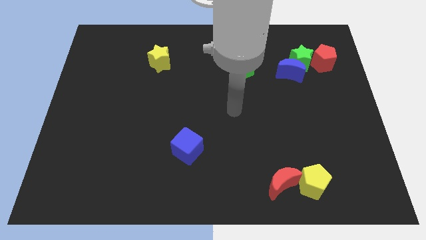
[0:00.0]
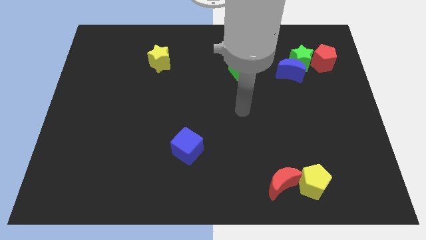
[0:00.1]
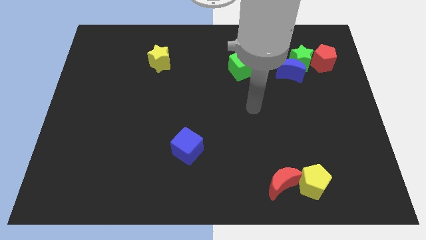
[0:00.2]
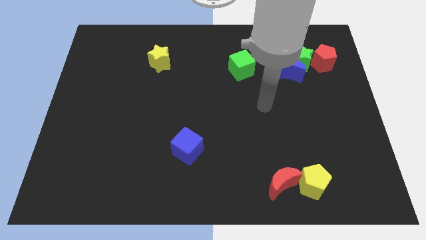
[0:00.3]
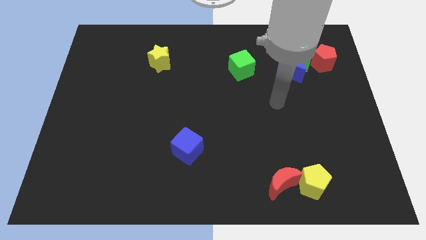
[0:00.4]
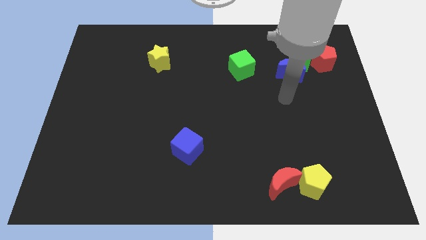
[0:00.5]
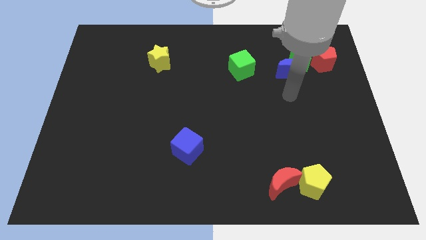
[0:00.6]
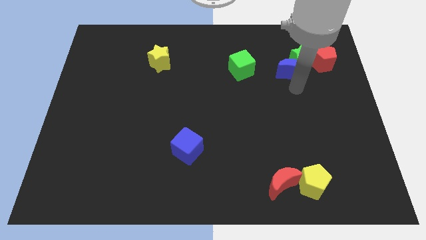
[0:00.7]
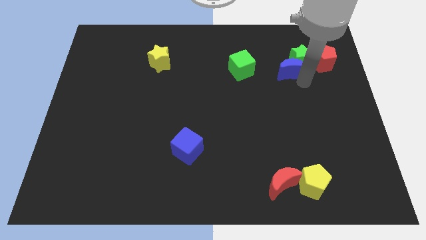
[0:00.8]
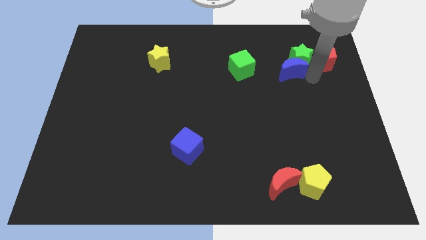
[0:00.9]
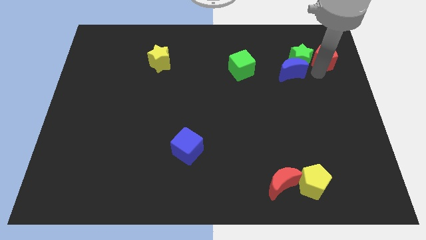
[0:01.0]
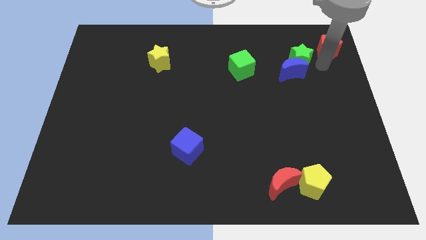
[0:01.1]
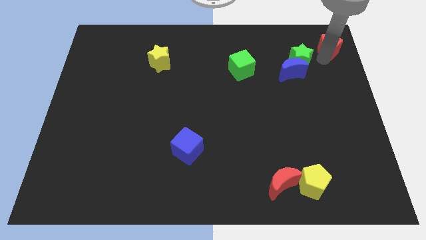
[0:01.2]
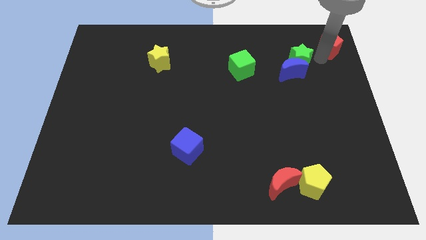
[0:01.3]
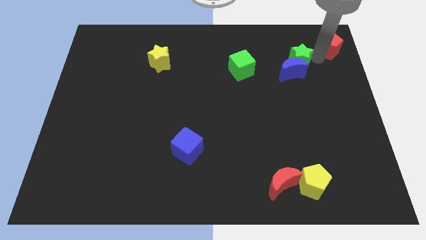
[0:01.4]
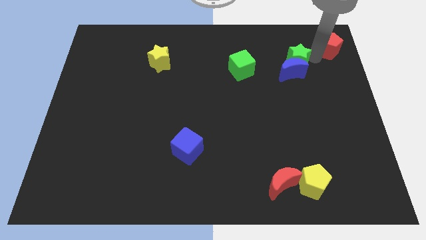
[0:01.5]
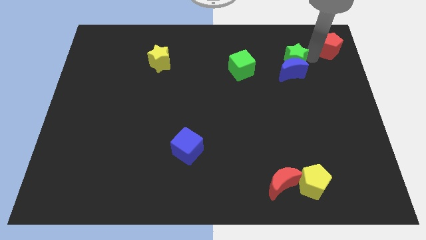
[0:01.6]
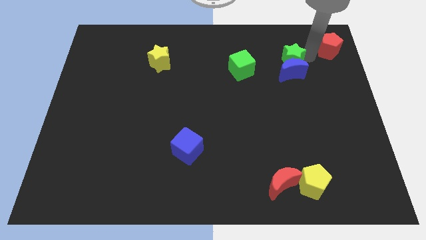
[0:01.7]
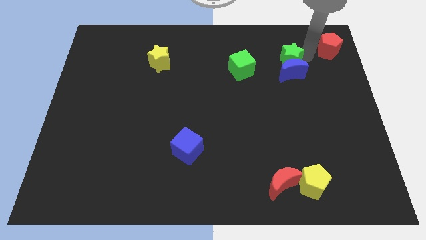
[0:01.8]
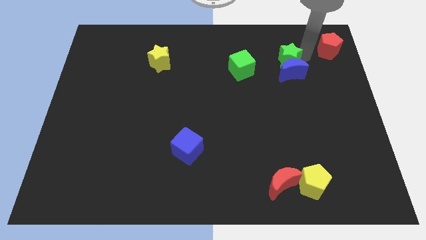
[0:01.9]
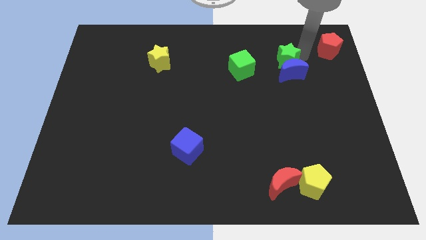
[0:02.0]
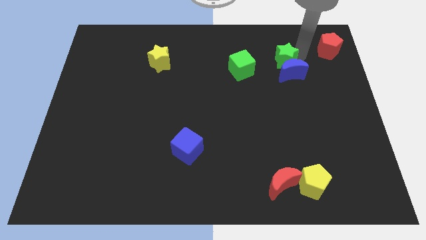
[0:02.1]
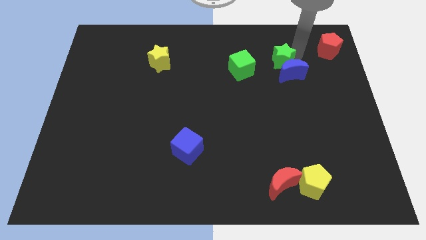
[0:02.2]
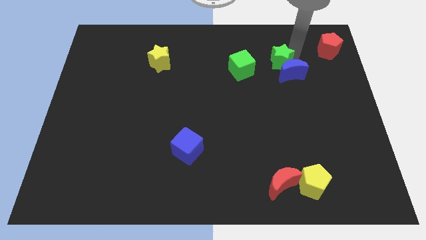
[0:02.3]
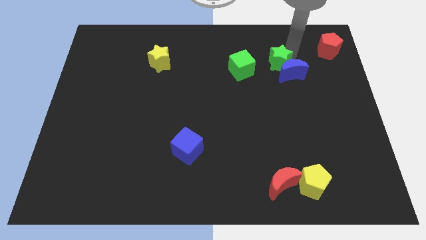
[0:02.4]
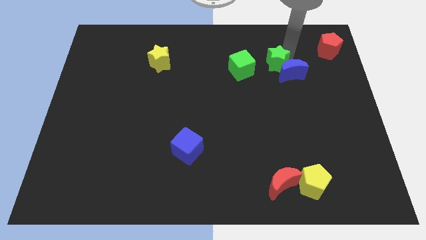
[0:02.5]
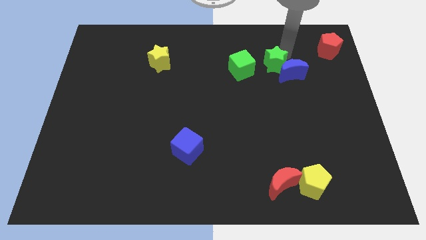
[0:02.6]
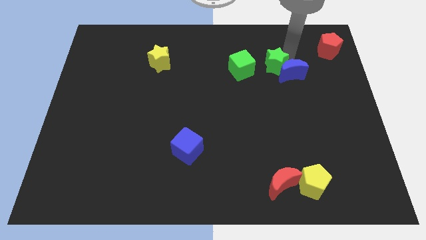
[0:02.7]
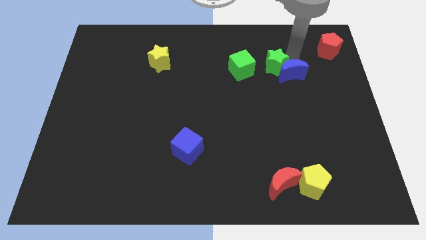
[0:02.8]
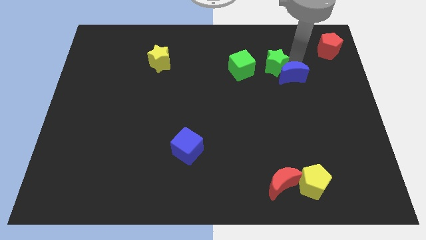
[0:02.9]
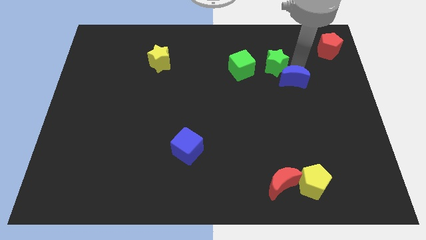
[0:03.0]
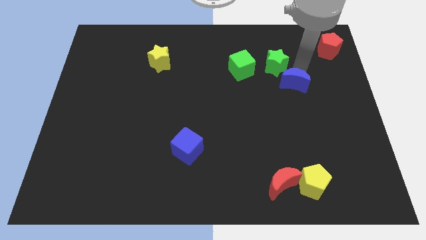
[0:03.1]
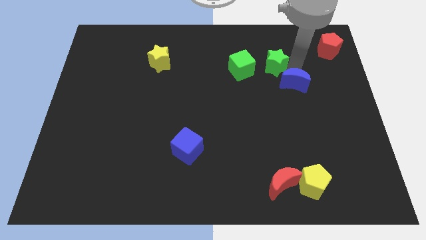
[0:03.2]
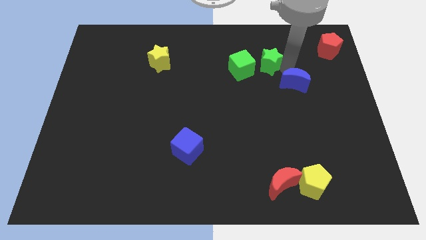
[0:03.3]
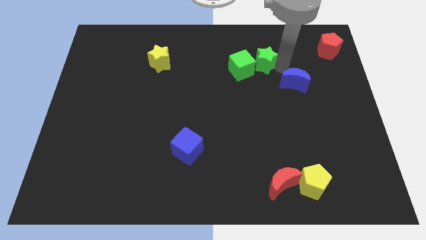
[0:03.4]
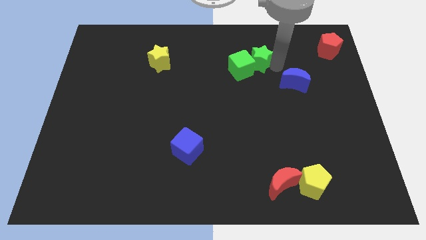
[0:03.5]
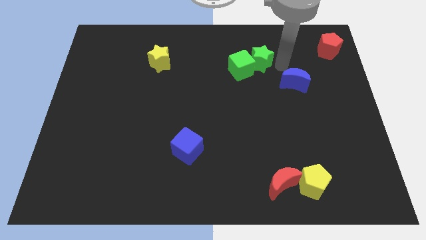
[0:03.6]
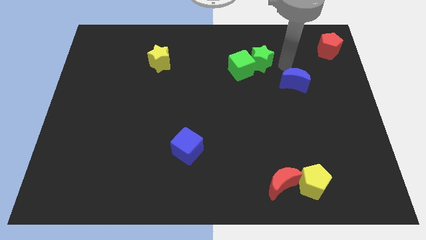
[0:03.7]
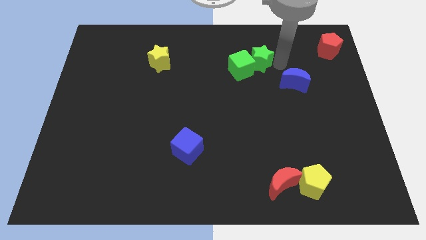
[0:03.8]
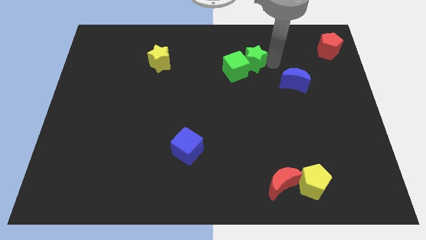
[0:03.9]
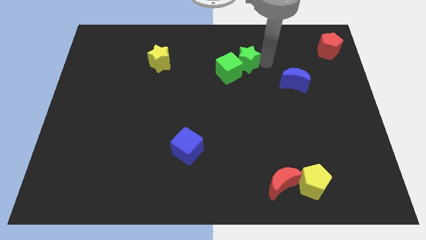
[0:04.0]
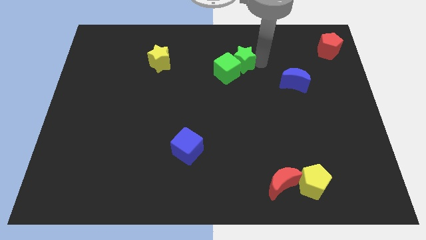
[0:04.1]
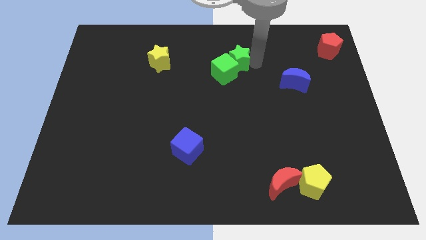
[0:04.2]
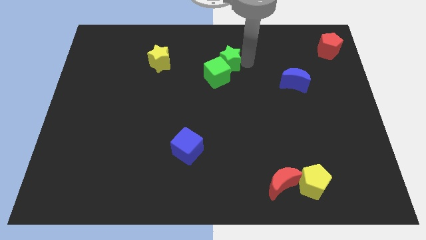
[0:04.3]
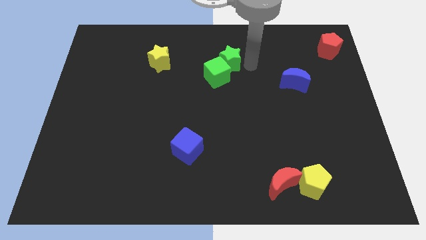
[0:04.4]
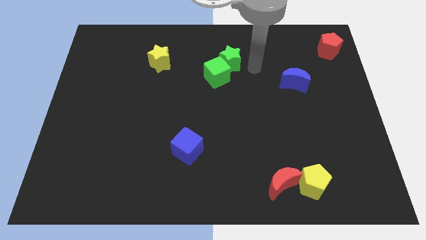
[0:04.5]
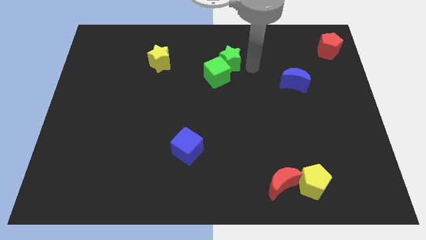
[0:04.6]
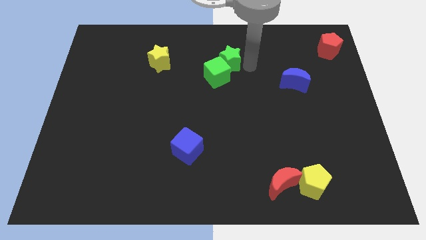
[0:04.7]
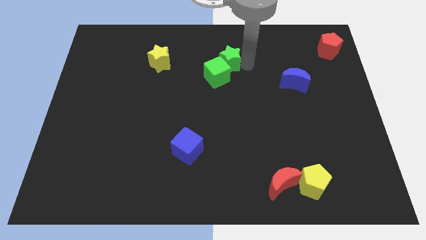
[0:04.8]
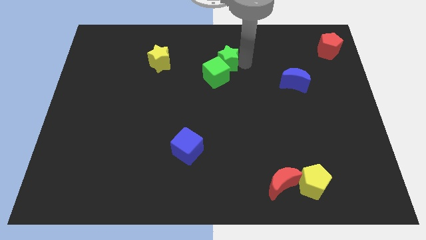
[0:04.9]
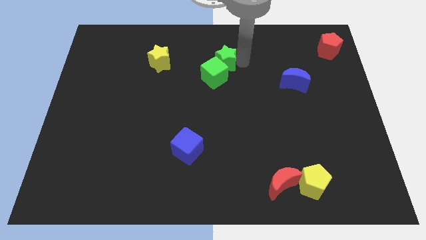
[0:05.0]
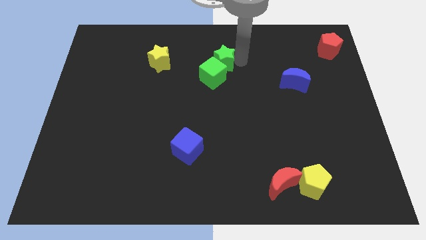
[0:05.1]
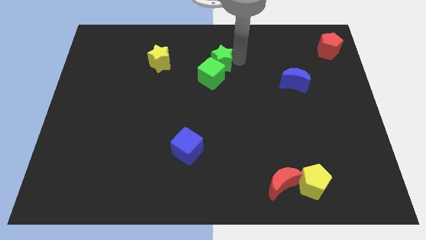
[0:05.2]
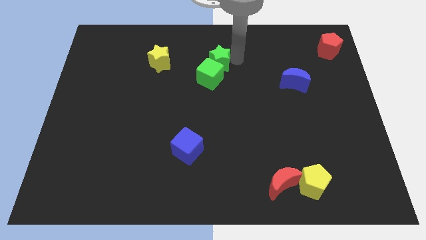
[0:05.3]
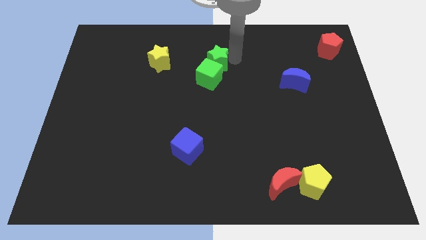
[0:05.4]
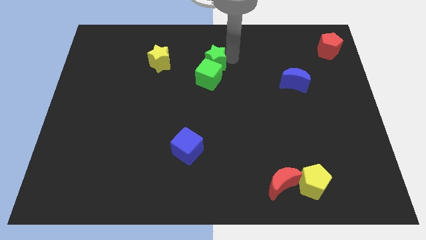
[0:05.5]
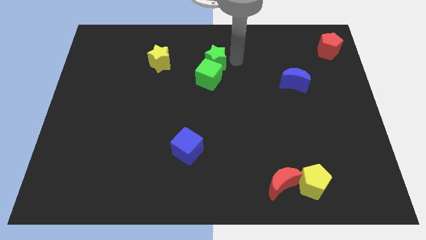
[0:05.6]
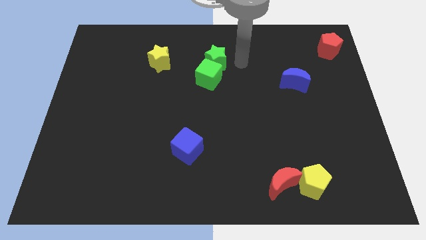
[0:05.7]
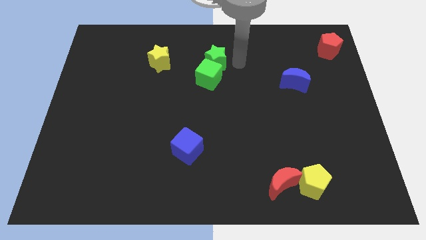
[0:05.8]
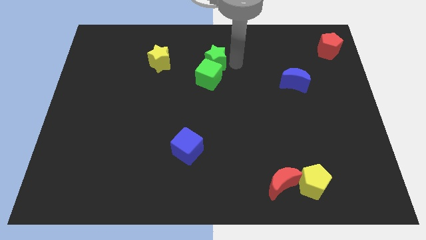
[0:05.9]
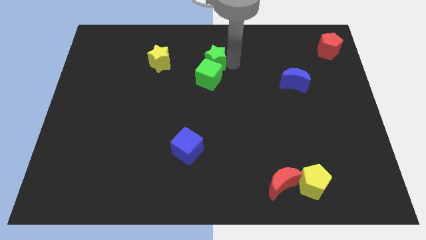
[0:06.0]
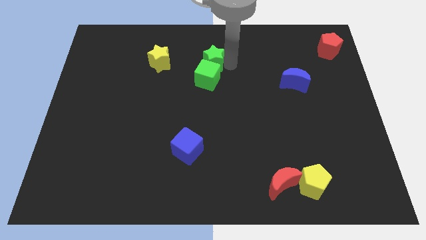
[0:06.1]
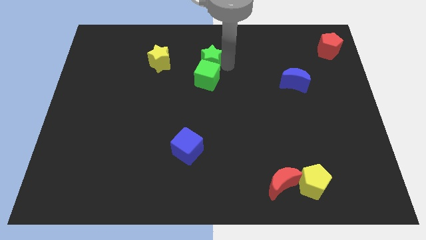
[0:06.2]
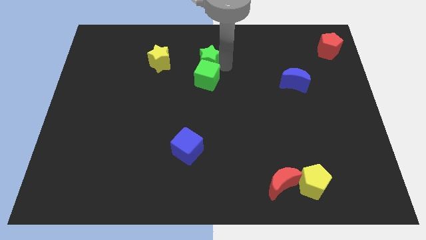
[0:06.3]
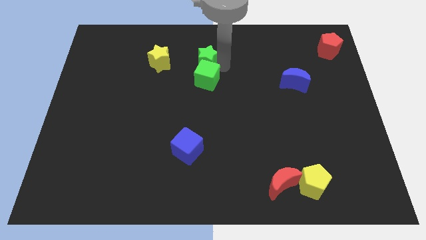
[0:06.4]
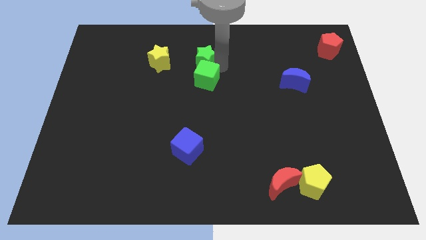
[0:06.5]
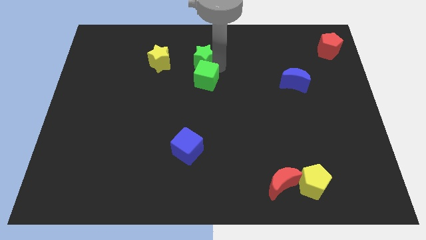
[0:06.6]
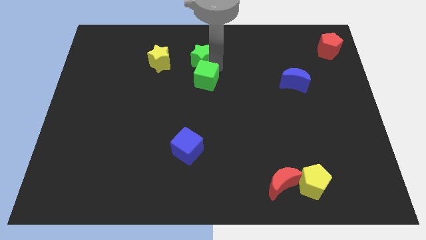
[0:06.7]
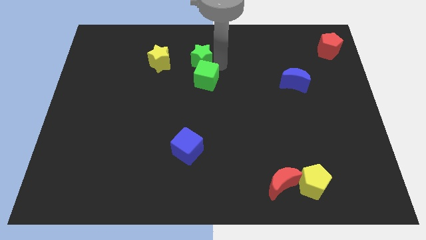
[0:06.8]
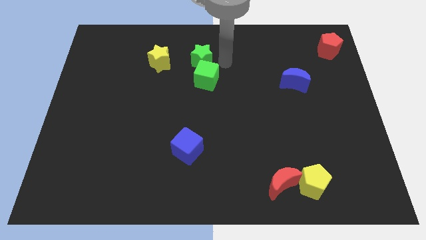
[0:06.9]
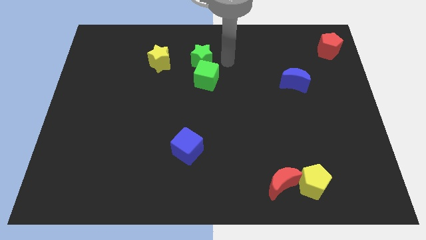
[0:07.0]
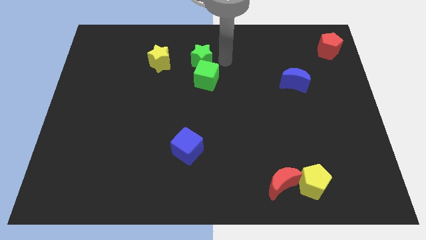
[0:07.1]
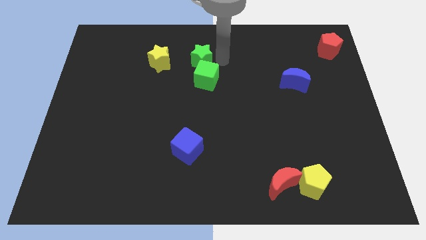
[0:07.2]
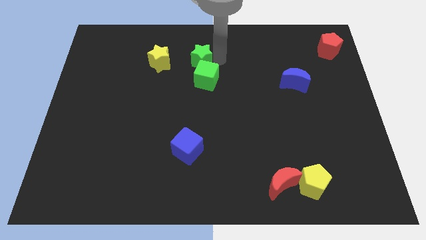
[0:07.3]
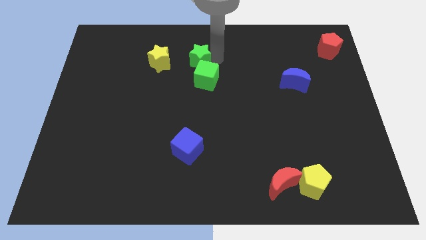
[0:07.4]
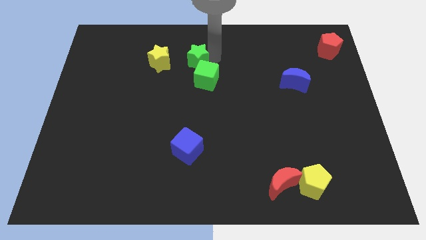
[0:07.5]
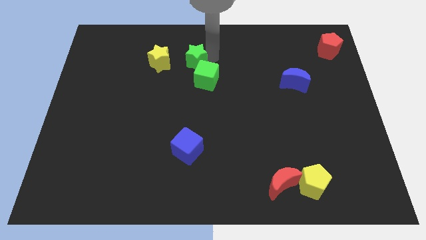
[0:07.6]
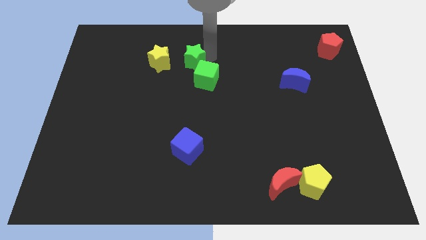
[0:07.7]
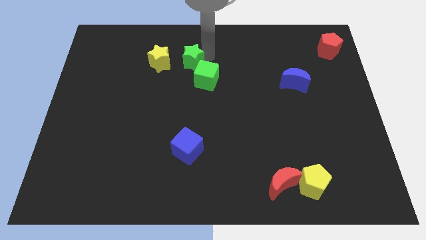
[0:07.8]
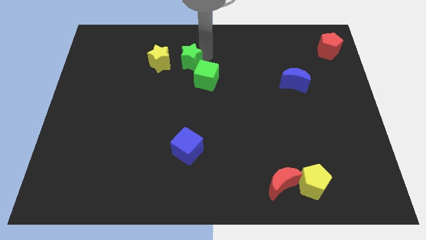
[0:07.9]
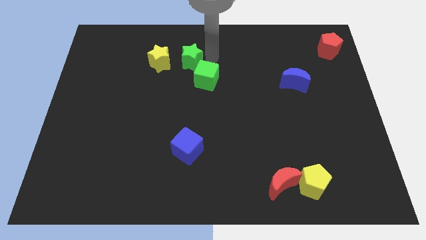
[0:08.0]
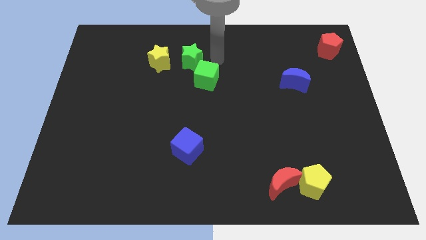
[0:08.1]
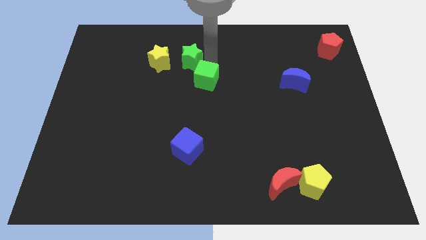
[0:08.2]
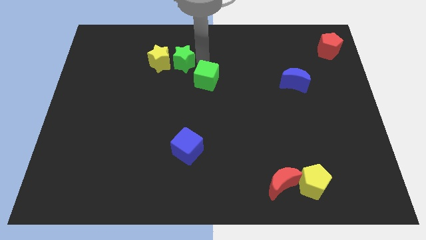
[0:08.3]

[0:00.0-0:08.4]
put the green star to the yellow star
